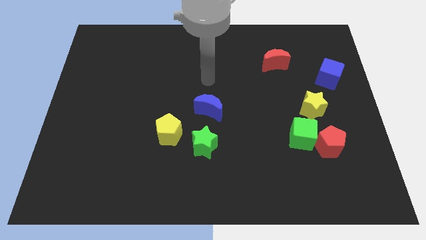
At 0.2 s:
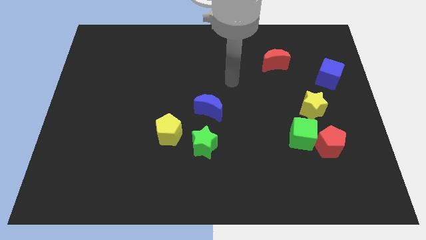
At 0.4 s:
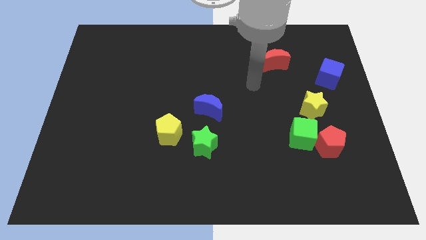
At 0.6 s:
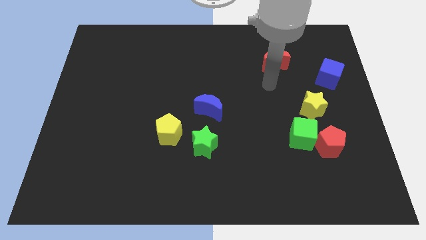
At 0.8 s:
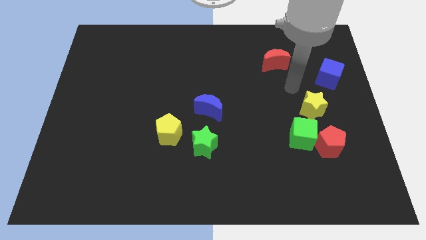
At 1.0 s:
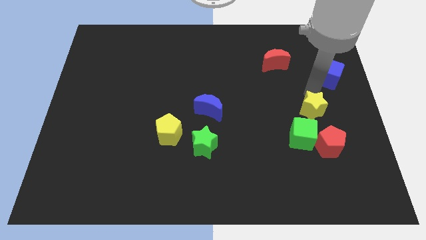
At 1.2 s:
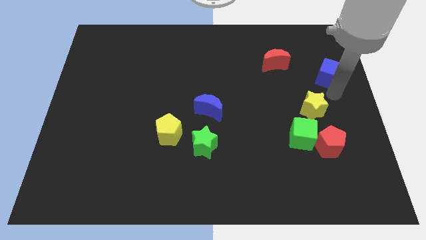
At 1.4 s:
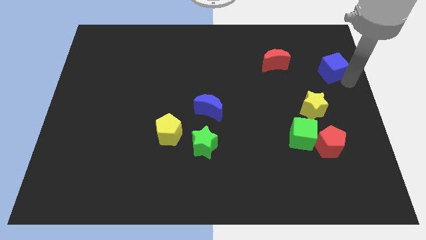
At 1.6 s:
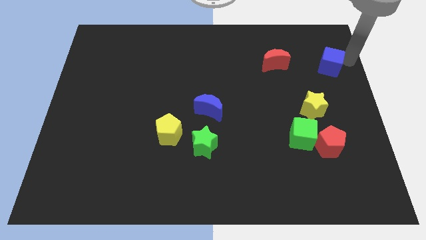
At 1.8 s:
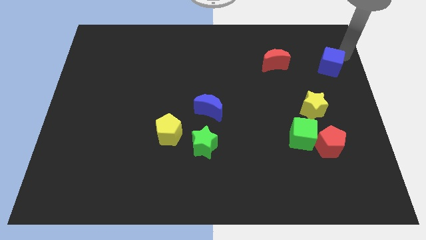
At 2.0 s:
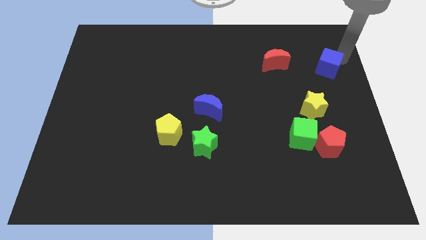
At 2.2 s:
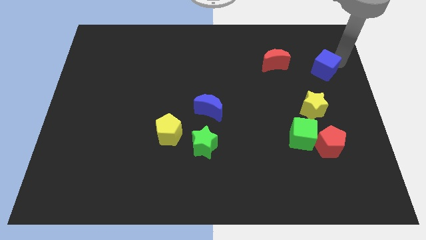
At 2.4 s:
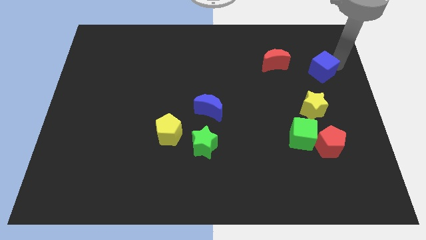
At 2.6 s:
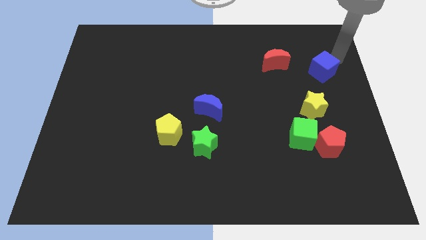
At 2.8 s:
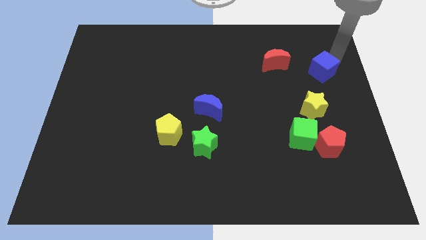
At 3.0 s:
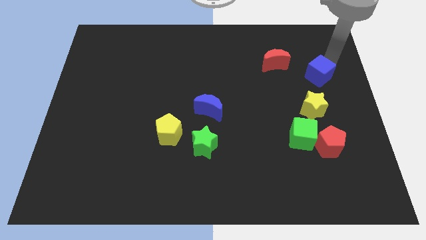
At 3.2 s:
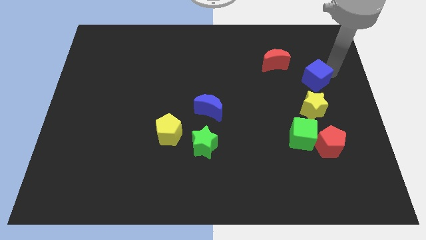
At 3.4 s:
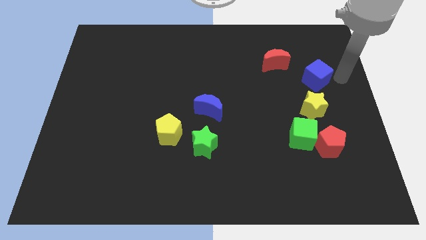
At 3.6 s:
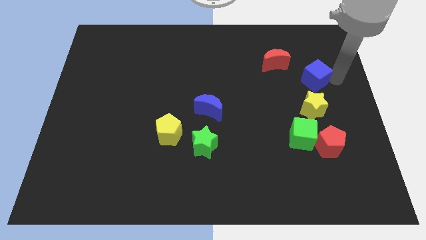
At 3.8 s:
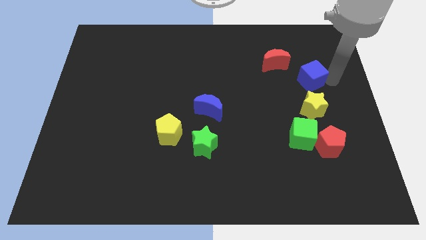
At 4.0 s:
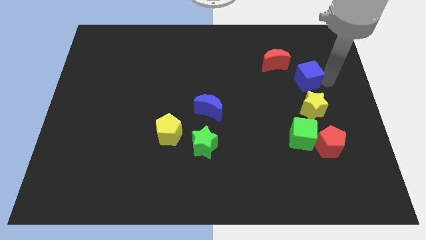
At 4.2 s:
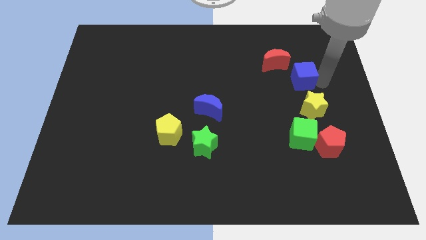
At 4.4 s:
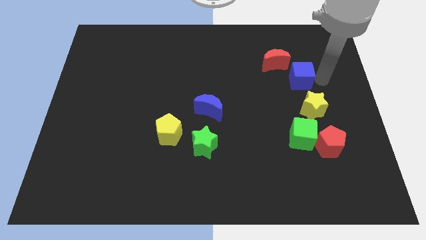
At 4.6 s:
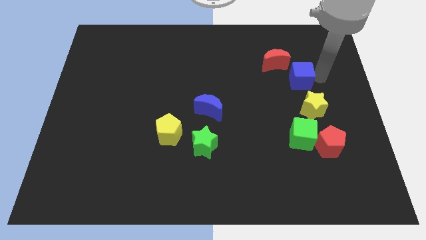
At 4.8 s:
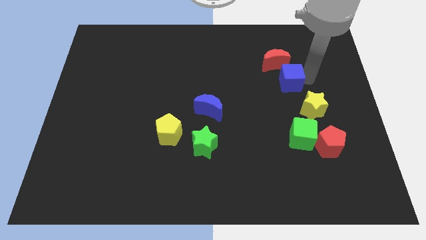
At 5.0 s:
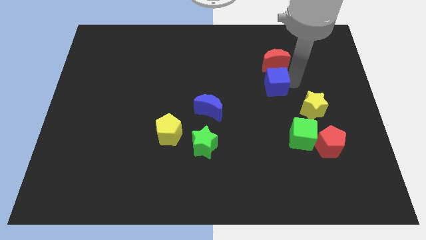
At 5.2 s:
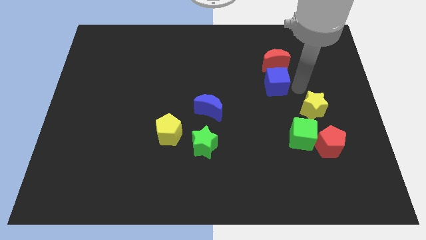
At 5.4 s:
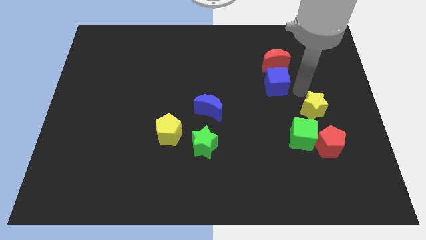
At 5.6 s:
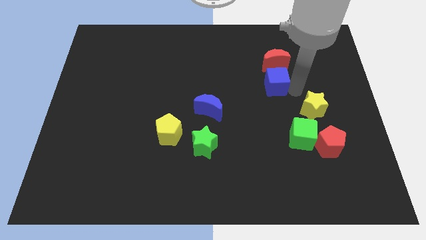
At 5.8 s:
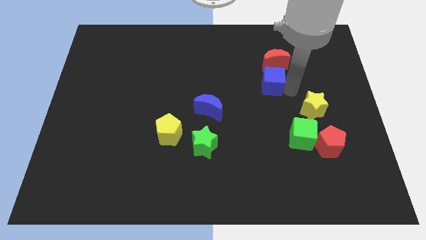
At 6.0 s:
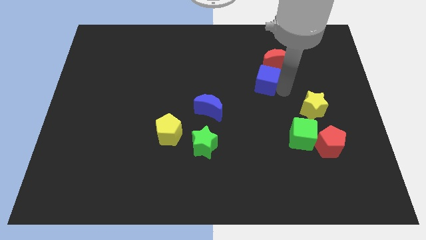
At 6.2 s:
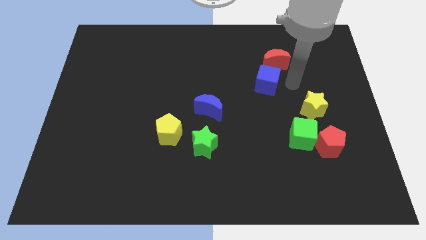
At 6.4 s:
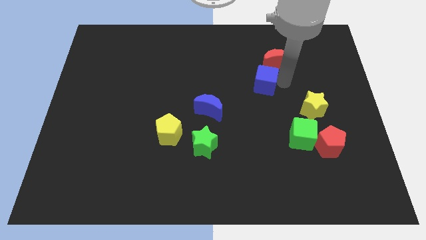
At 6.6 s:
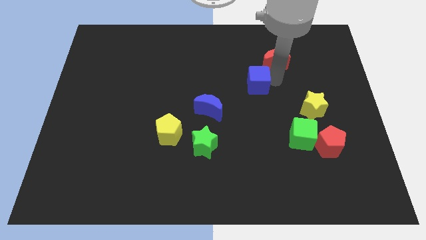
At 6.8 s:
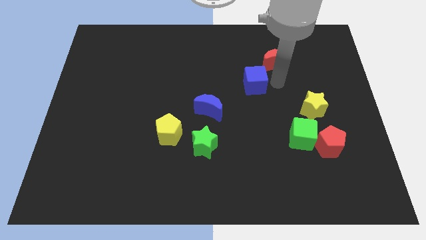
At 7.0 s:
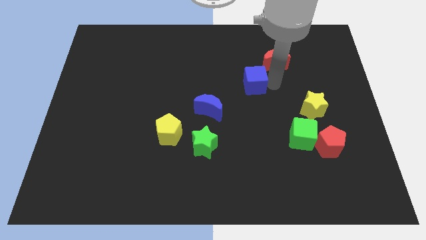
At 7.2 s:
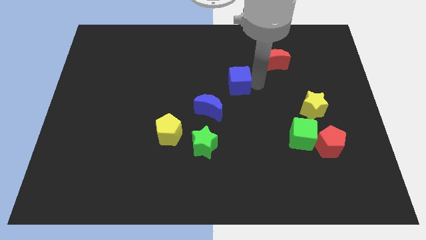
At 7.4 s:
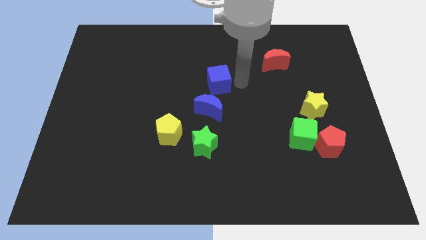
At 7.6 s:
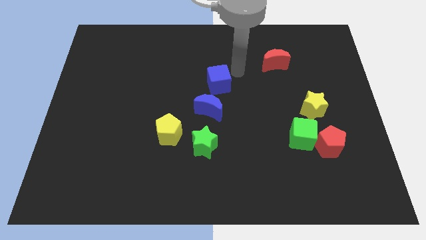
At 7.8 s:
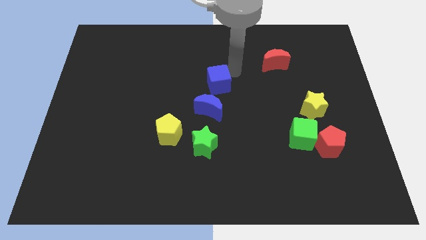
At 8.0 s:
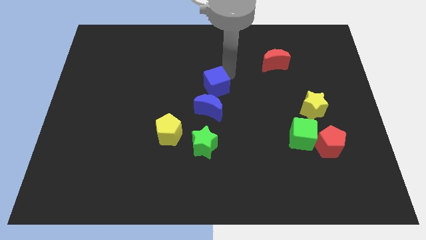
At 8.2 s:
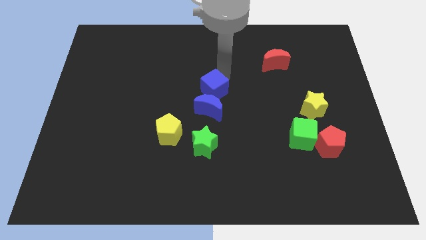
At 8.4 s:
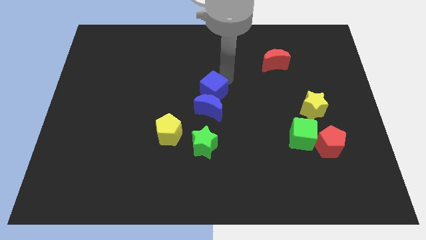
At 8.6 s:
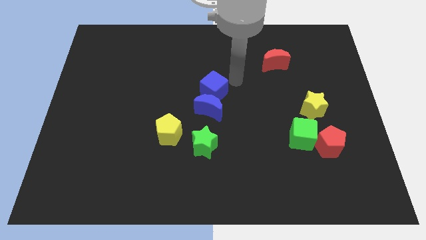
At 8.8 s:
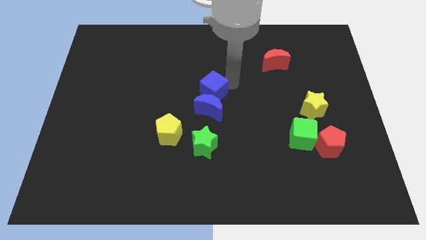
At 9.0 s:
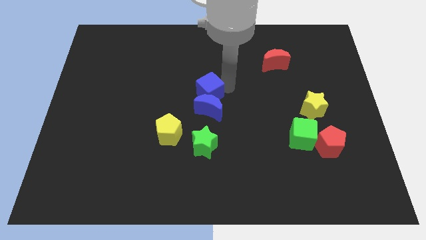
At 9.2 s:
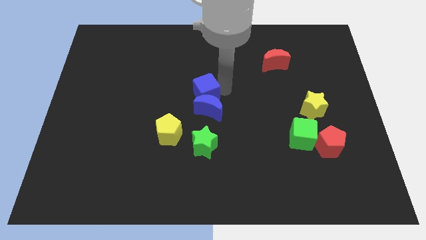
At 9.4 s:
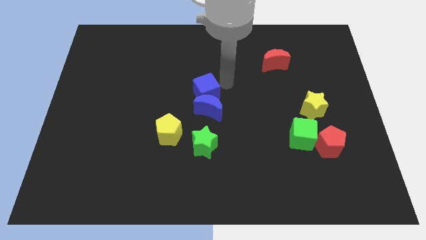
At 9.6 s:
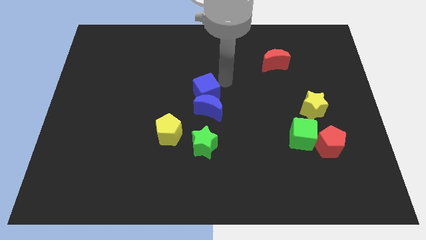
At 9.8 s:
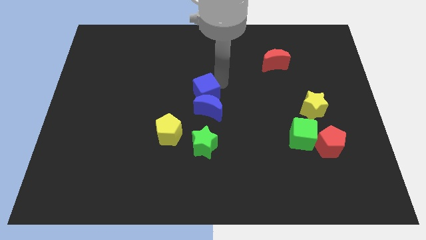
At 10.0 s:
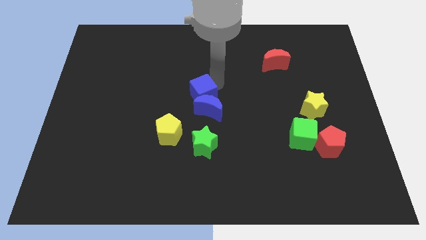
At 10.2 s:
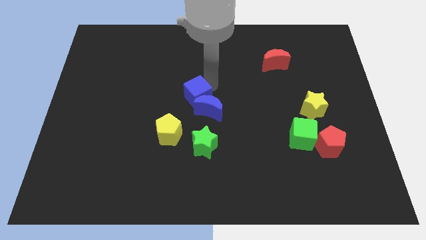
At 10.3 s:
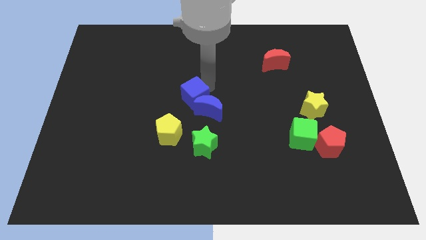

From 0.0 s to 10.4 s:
move the blue cube diagonally up and to the right of the yellow pentagon

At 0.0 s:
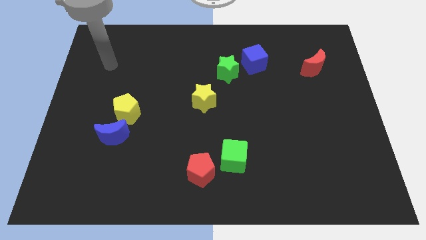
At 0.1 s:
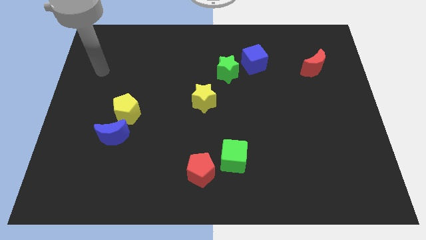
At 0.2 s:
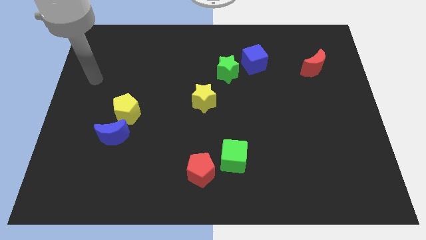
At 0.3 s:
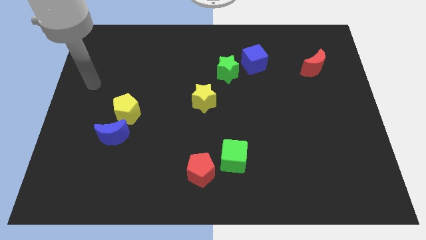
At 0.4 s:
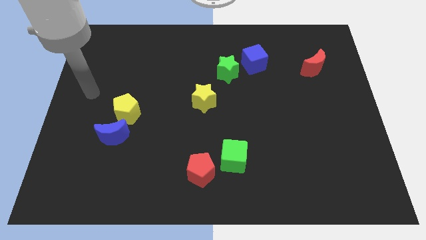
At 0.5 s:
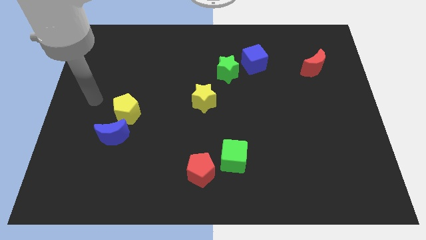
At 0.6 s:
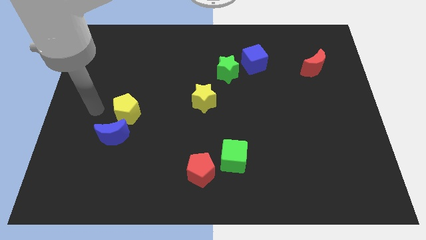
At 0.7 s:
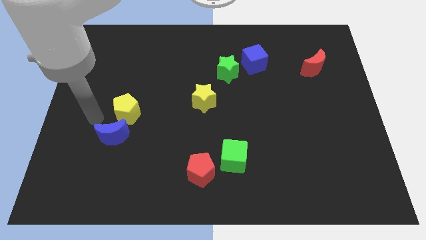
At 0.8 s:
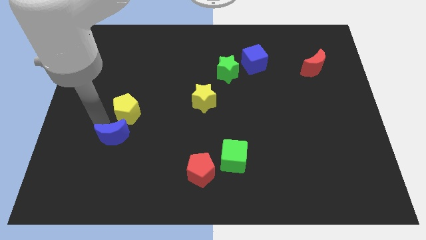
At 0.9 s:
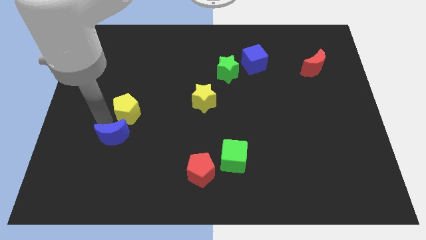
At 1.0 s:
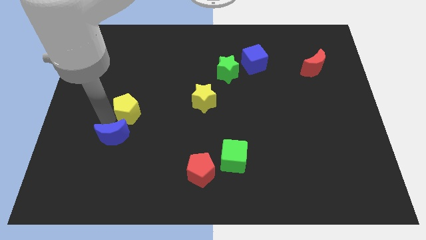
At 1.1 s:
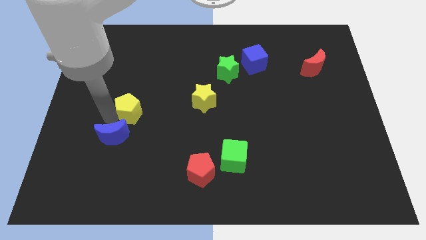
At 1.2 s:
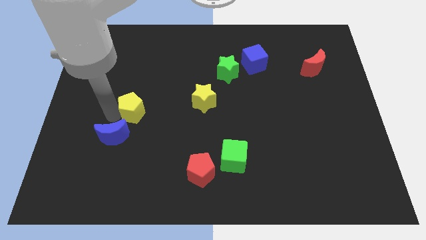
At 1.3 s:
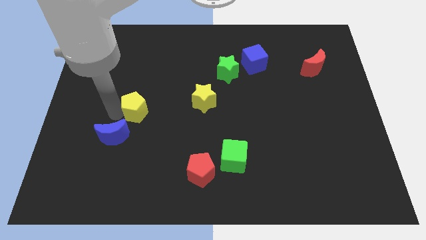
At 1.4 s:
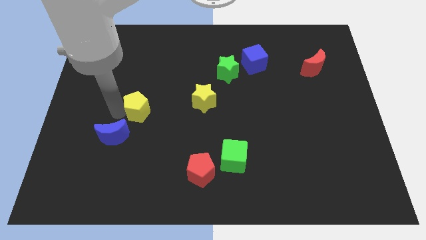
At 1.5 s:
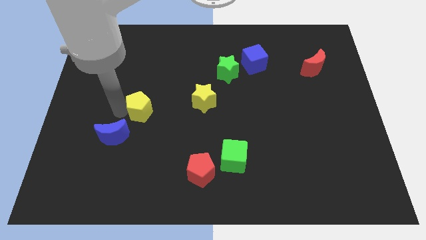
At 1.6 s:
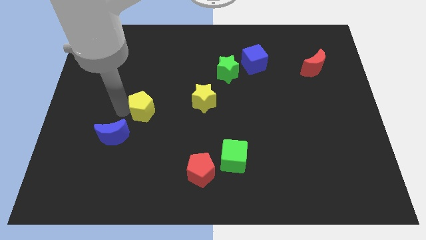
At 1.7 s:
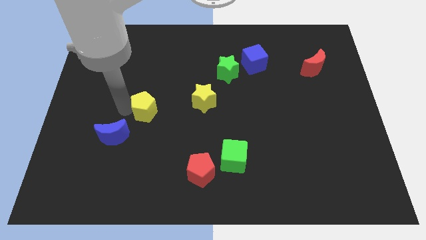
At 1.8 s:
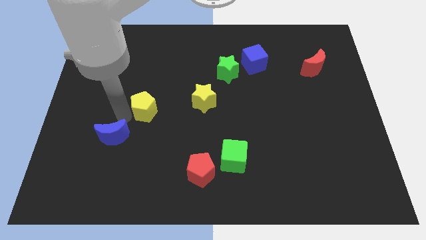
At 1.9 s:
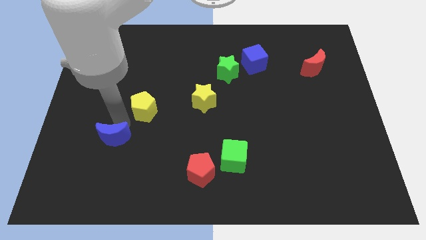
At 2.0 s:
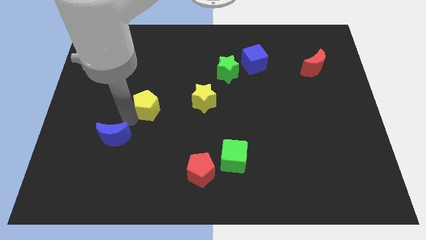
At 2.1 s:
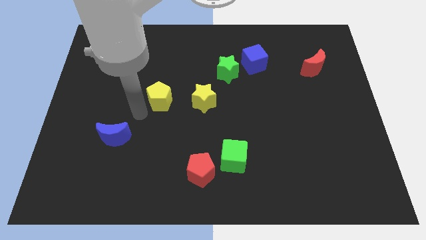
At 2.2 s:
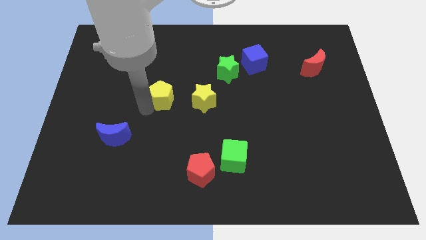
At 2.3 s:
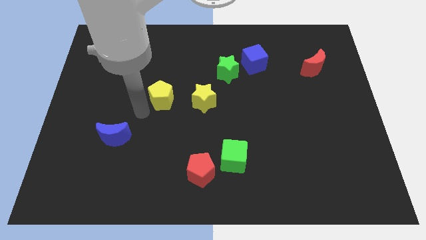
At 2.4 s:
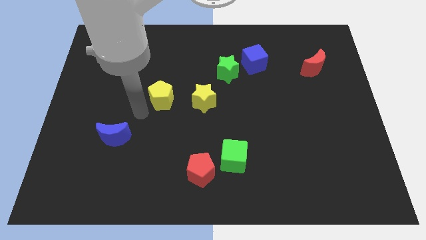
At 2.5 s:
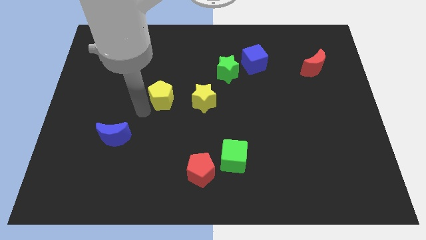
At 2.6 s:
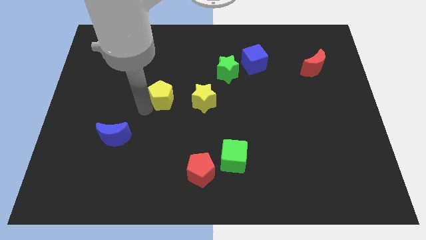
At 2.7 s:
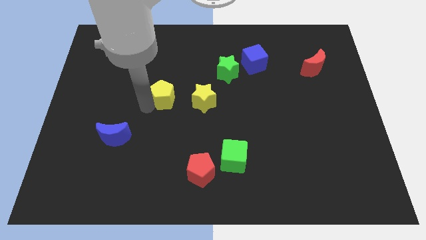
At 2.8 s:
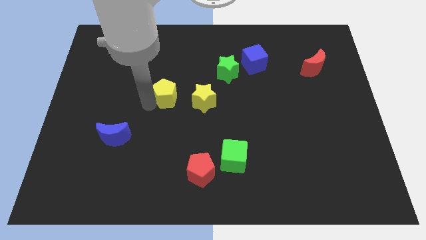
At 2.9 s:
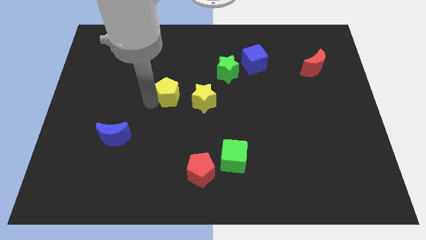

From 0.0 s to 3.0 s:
move the yellow pentagon to the top left of the yellow star
